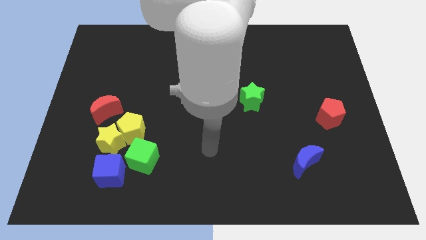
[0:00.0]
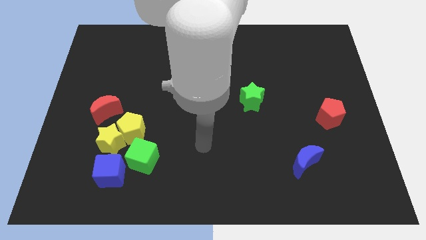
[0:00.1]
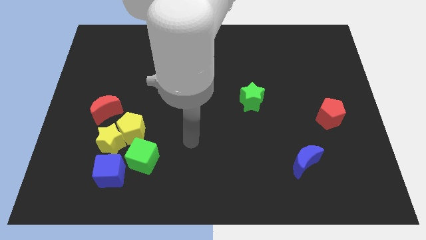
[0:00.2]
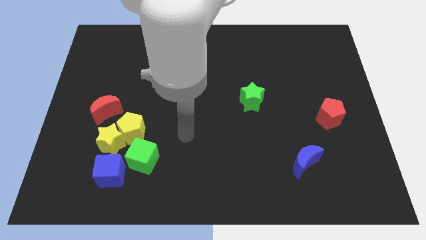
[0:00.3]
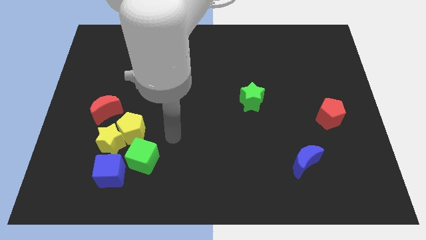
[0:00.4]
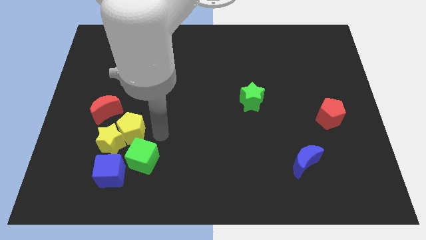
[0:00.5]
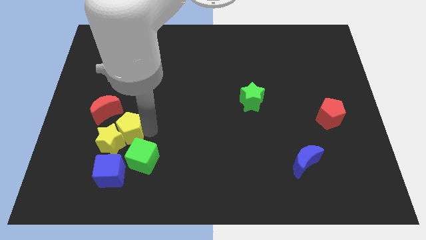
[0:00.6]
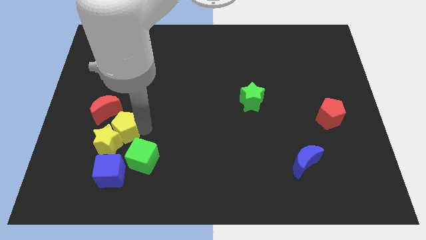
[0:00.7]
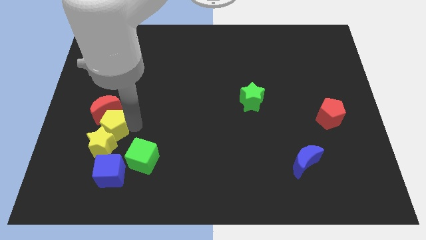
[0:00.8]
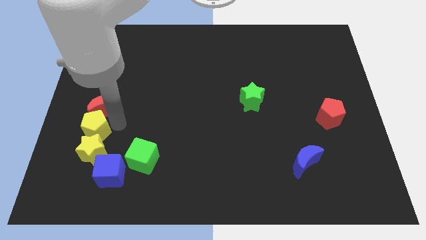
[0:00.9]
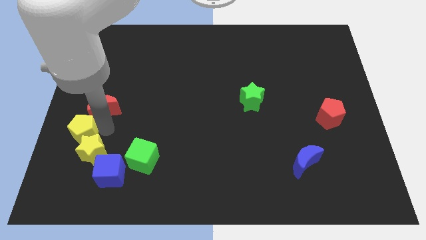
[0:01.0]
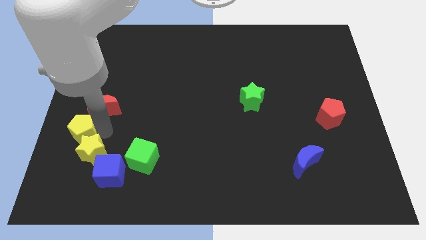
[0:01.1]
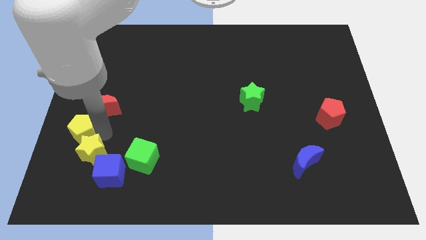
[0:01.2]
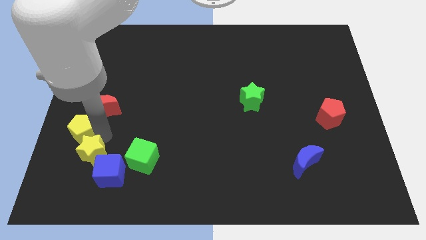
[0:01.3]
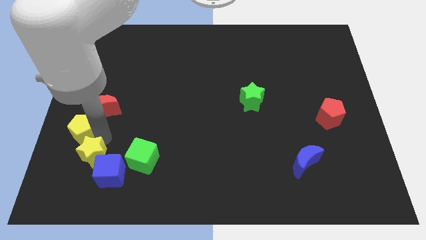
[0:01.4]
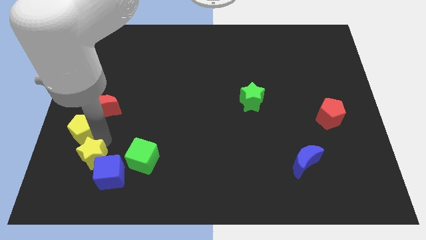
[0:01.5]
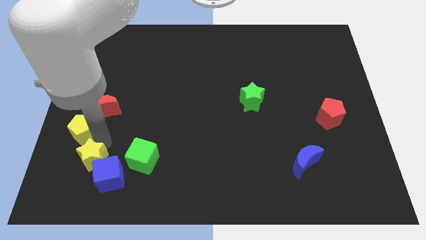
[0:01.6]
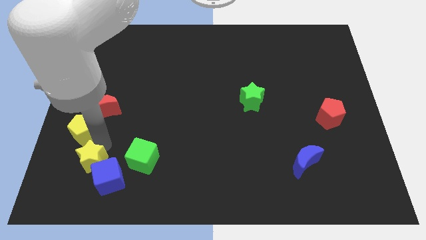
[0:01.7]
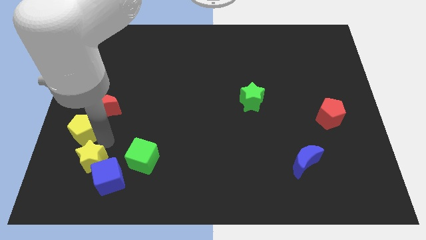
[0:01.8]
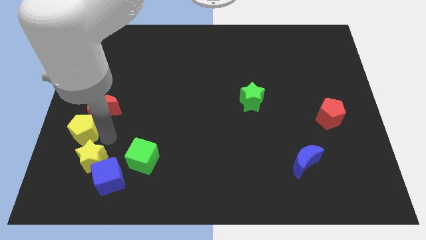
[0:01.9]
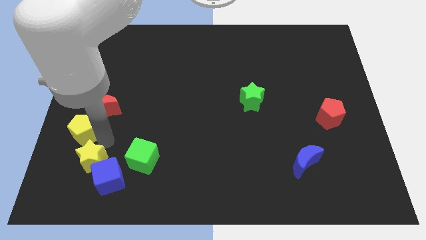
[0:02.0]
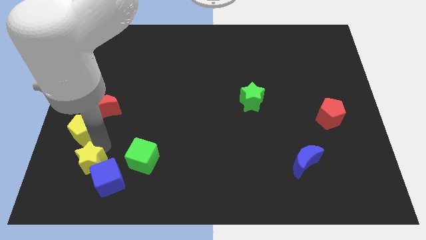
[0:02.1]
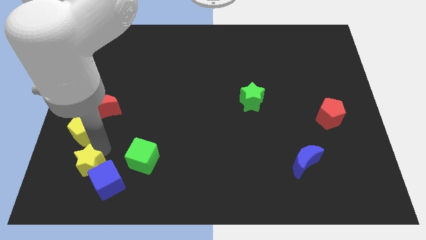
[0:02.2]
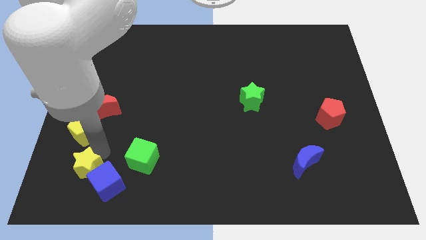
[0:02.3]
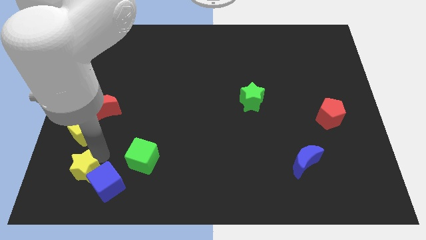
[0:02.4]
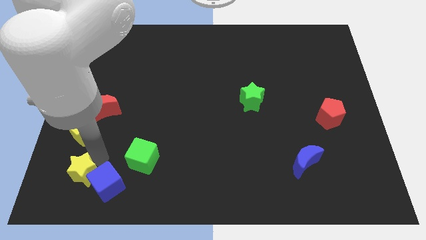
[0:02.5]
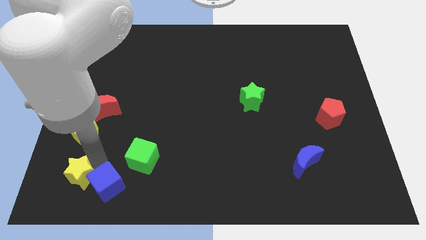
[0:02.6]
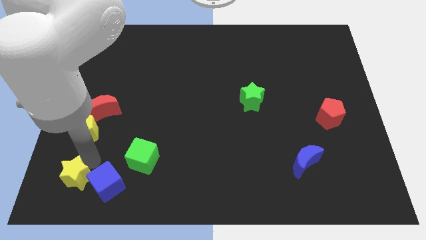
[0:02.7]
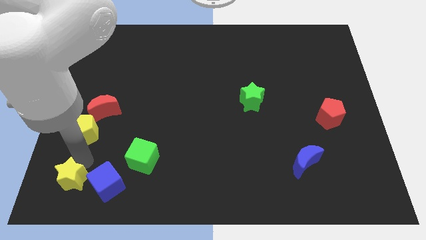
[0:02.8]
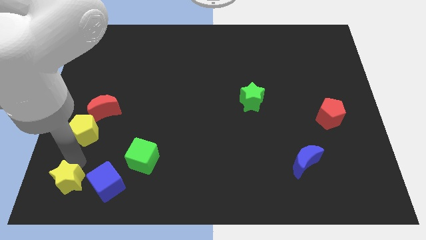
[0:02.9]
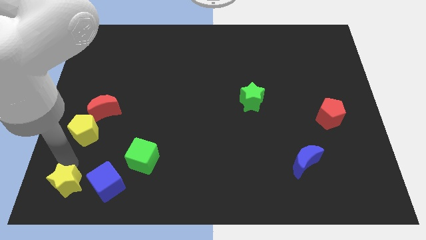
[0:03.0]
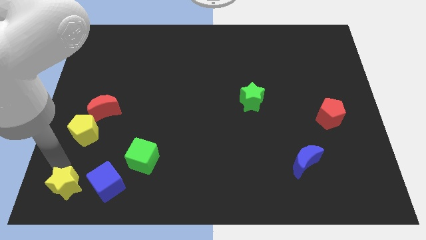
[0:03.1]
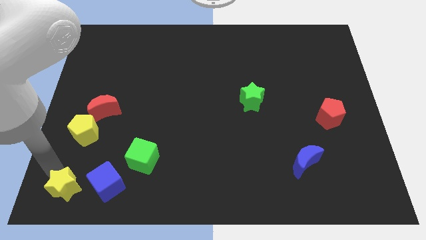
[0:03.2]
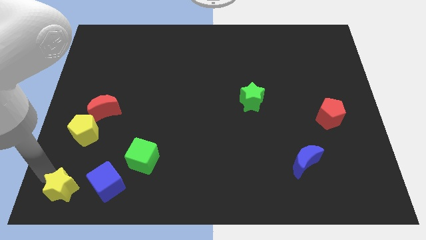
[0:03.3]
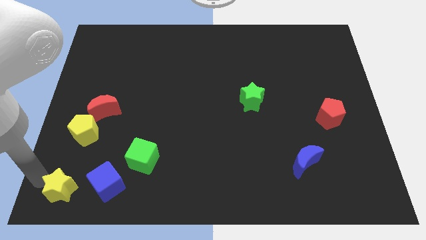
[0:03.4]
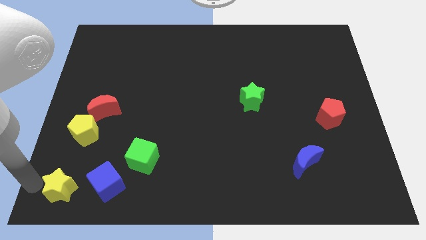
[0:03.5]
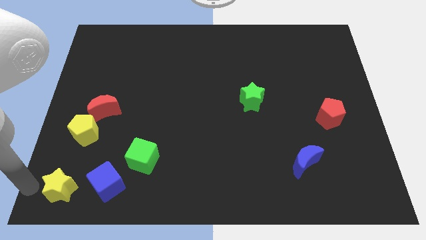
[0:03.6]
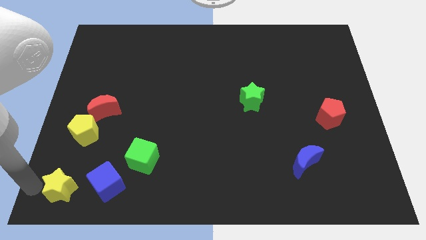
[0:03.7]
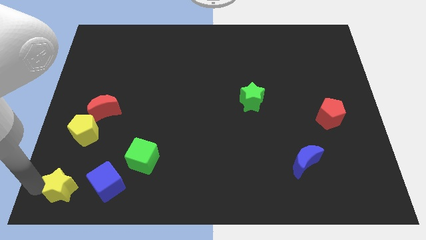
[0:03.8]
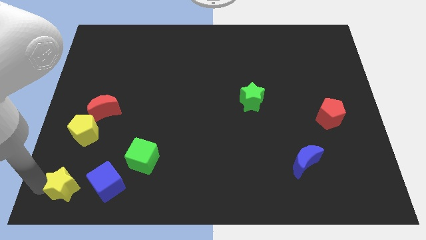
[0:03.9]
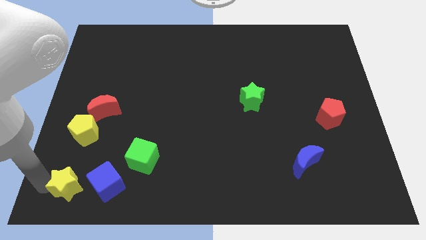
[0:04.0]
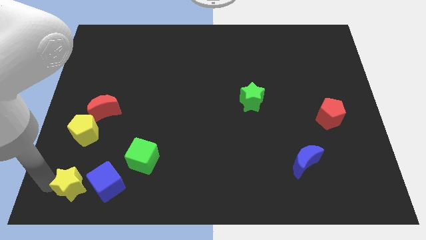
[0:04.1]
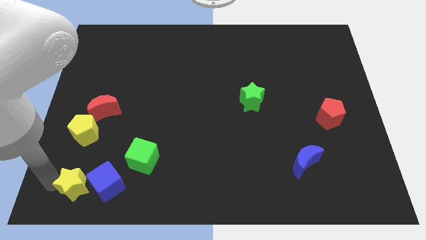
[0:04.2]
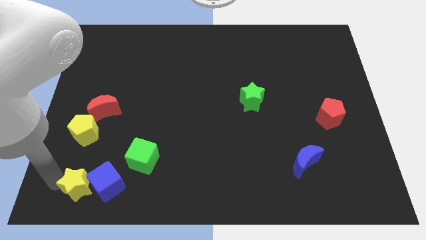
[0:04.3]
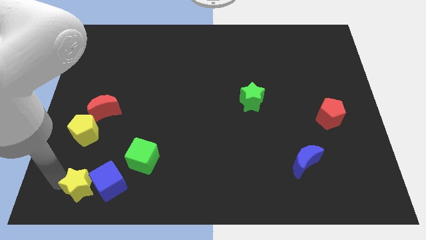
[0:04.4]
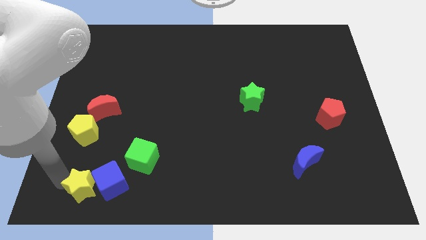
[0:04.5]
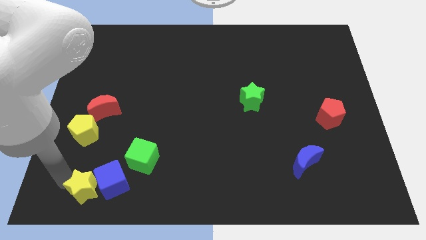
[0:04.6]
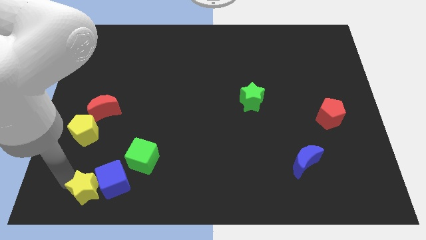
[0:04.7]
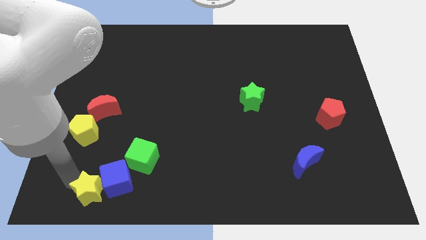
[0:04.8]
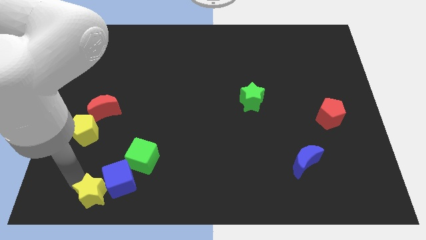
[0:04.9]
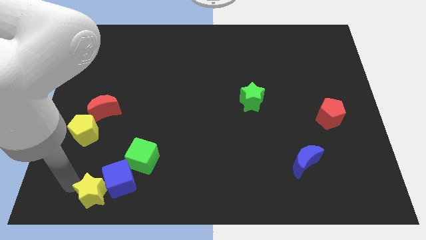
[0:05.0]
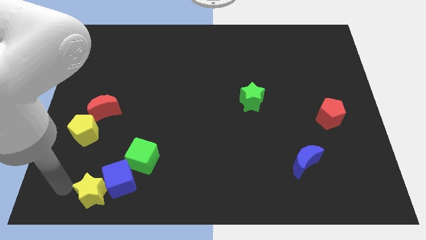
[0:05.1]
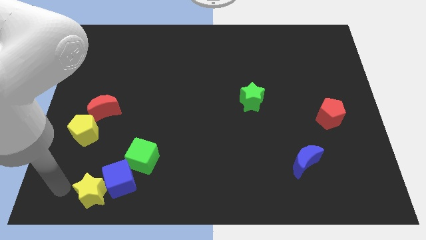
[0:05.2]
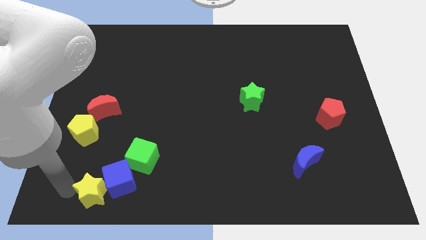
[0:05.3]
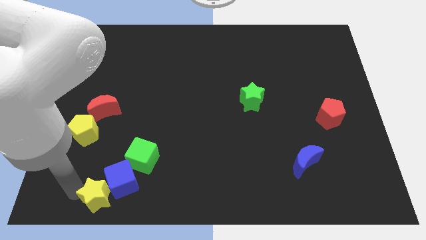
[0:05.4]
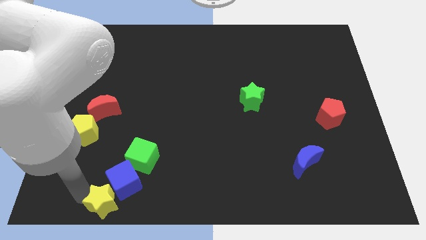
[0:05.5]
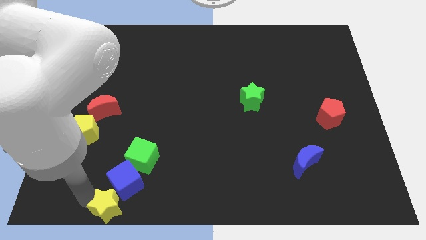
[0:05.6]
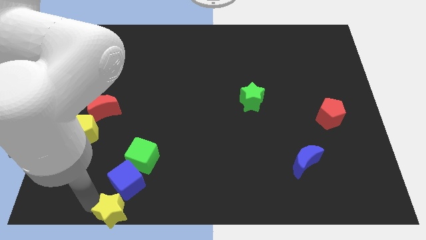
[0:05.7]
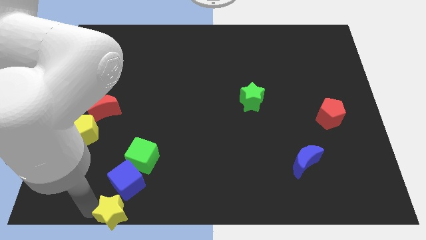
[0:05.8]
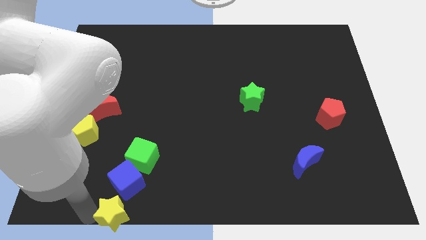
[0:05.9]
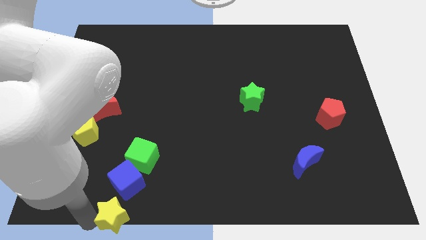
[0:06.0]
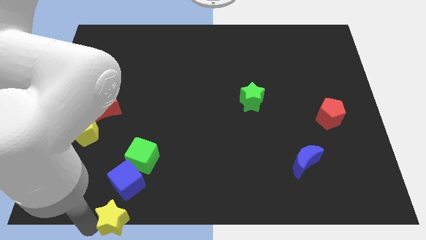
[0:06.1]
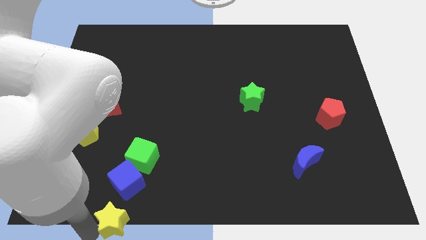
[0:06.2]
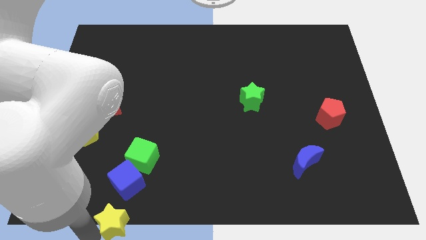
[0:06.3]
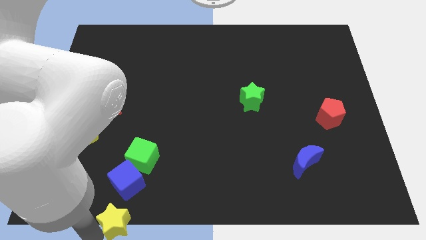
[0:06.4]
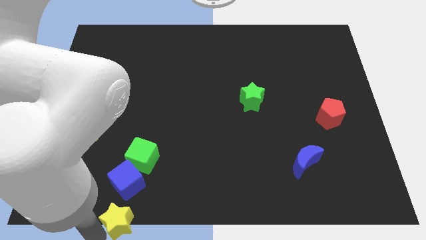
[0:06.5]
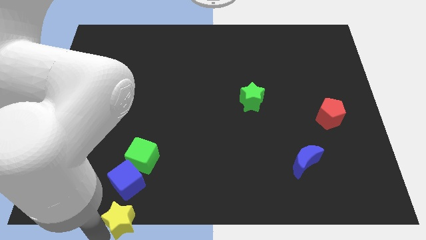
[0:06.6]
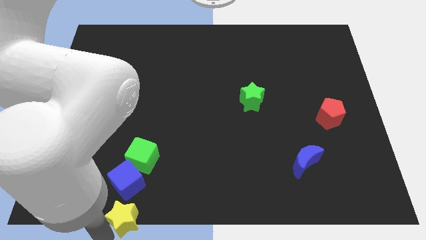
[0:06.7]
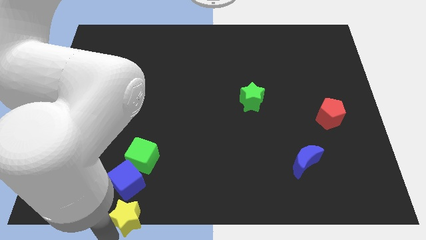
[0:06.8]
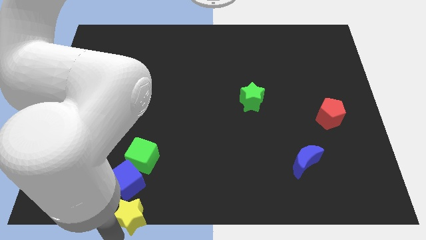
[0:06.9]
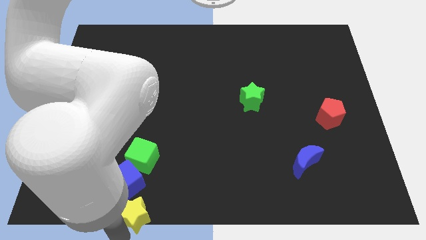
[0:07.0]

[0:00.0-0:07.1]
slide the yellow star to the bottom
